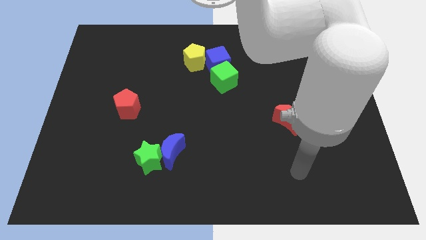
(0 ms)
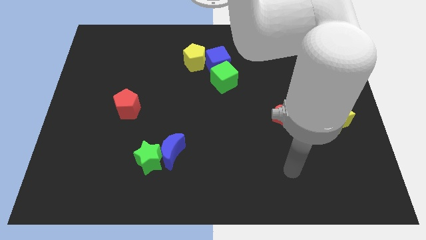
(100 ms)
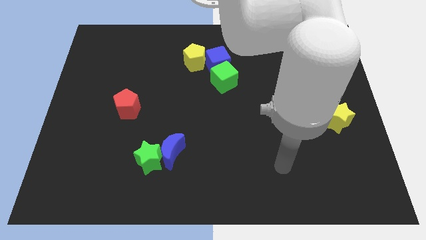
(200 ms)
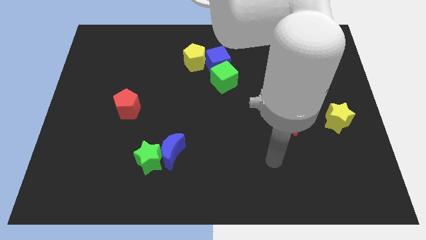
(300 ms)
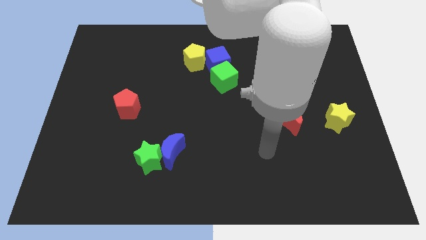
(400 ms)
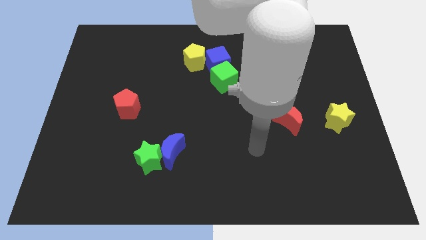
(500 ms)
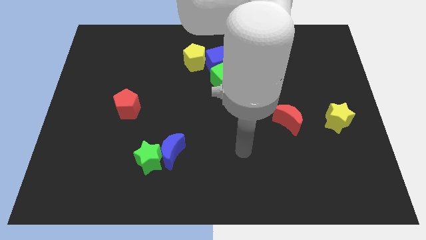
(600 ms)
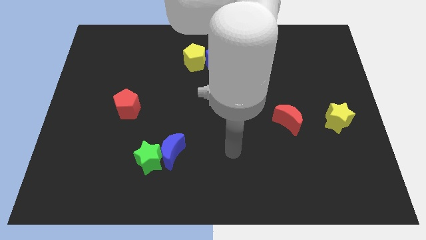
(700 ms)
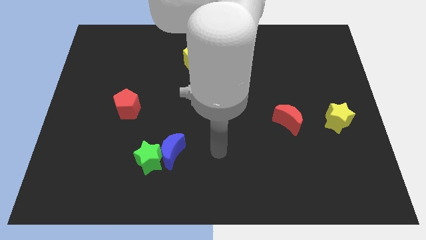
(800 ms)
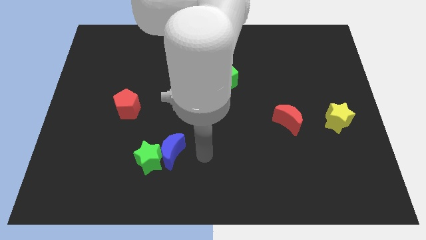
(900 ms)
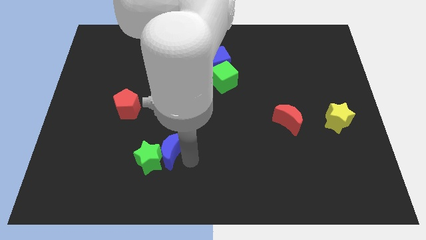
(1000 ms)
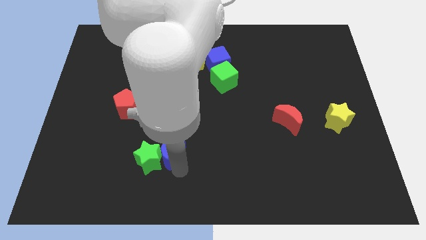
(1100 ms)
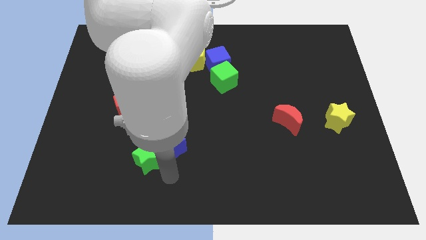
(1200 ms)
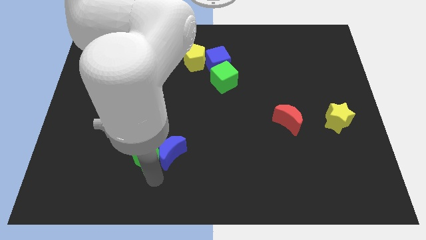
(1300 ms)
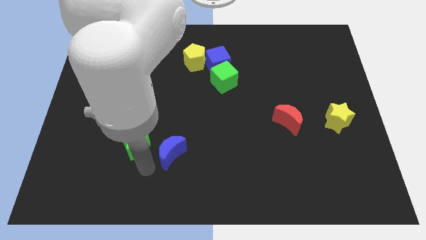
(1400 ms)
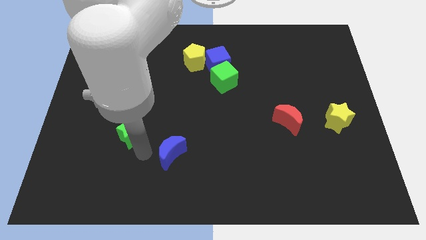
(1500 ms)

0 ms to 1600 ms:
separate the blue moon from the green star

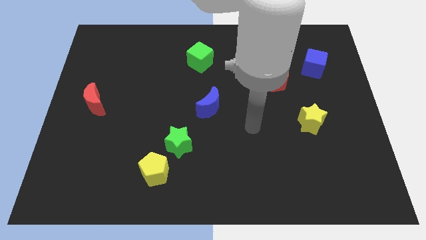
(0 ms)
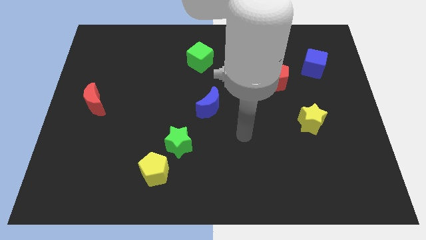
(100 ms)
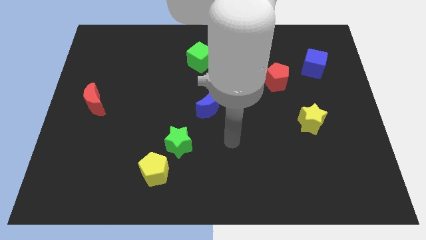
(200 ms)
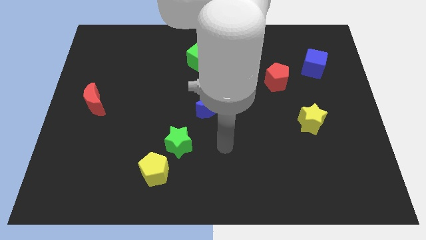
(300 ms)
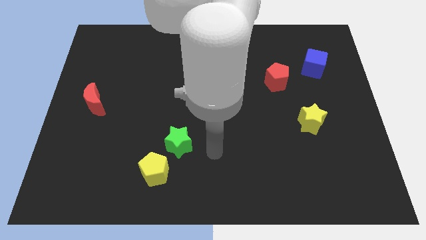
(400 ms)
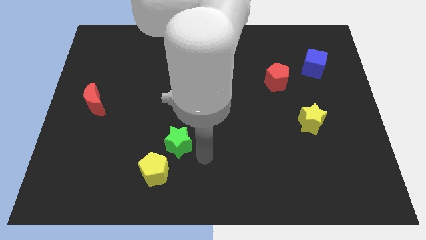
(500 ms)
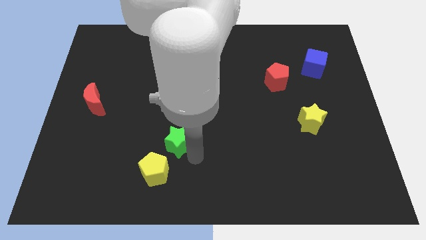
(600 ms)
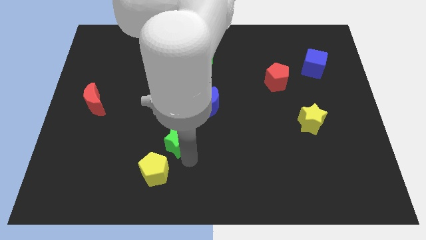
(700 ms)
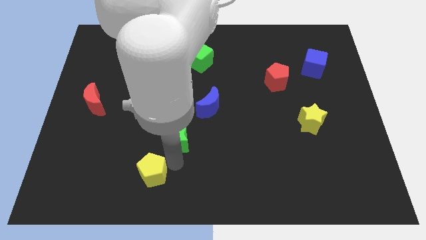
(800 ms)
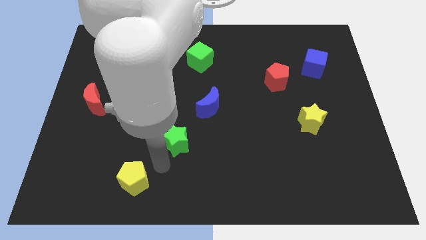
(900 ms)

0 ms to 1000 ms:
pull the green star apart from the yellow pentagon

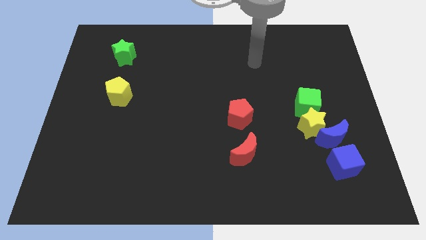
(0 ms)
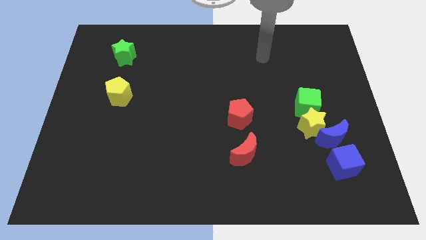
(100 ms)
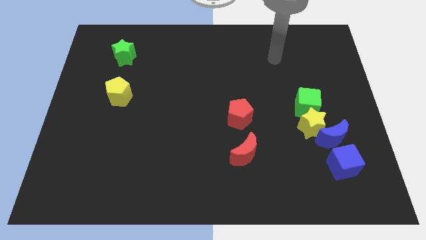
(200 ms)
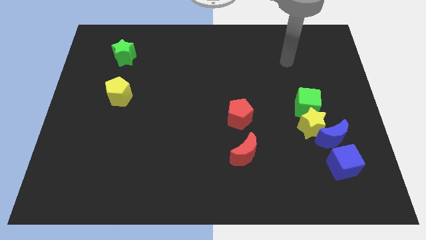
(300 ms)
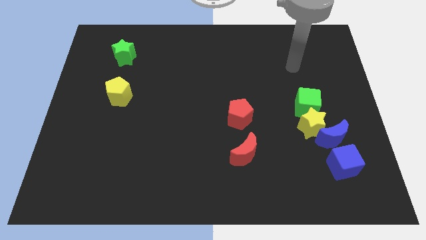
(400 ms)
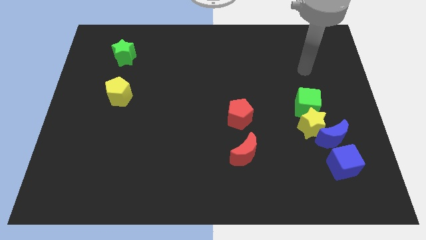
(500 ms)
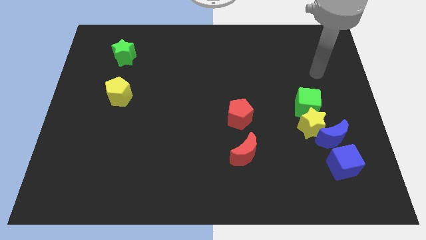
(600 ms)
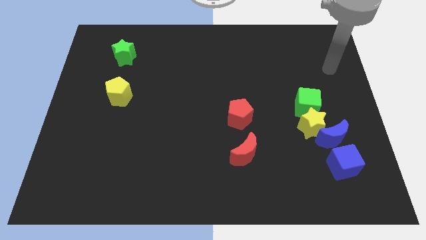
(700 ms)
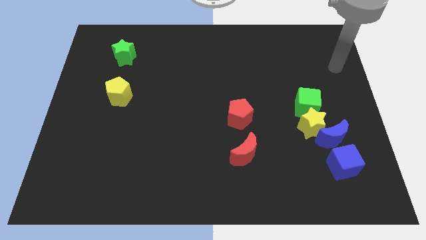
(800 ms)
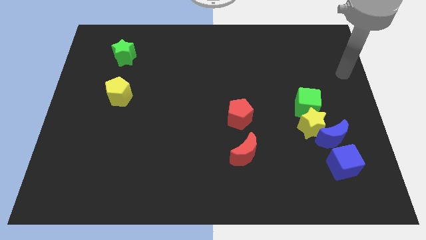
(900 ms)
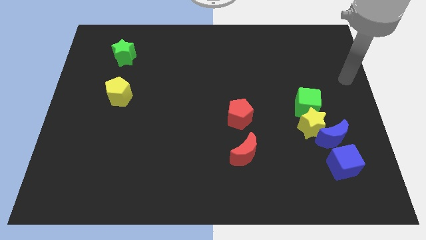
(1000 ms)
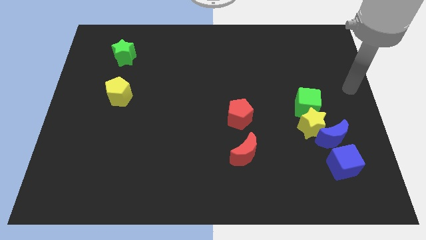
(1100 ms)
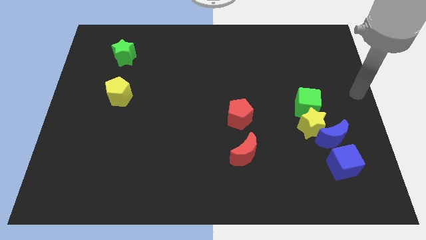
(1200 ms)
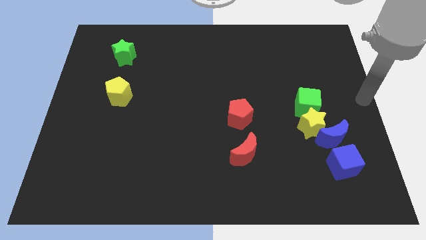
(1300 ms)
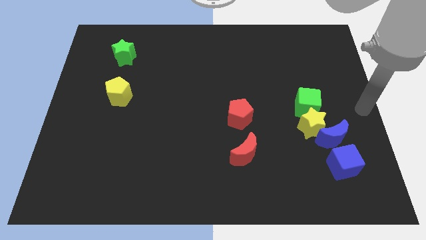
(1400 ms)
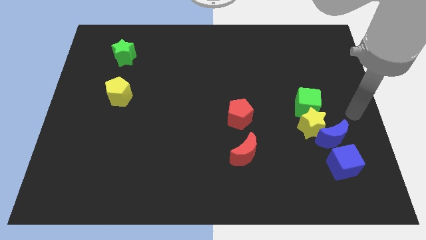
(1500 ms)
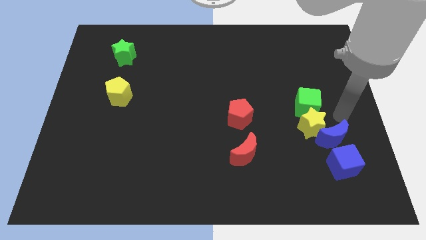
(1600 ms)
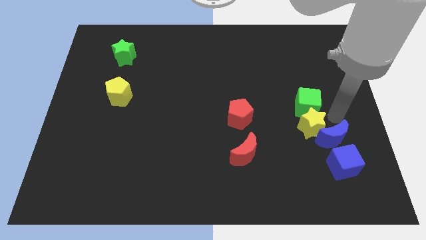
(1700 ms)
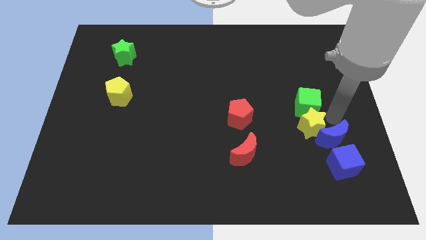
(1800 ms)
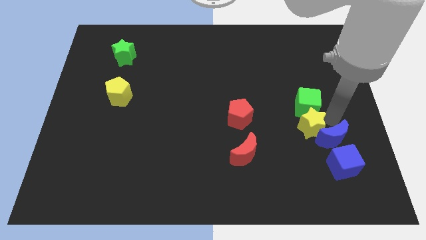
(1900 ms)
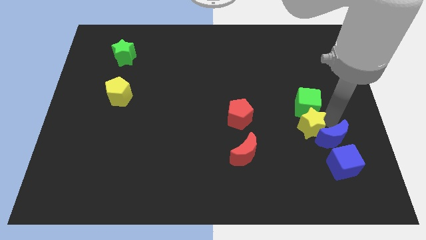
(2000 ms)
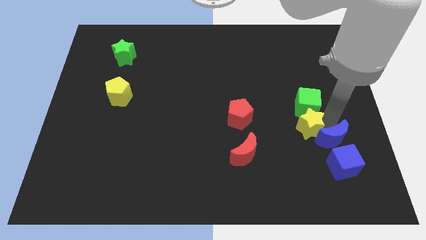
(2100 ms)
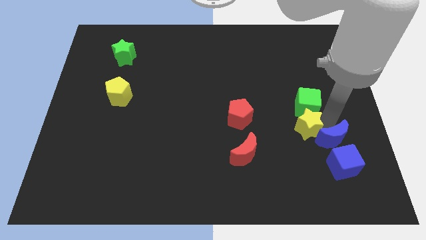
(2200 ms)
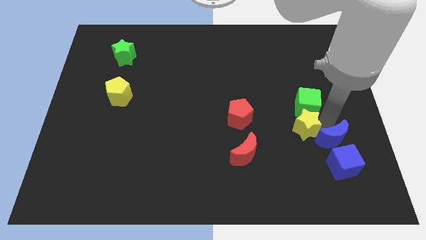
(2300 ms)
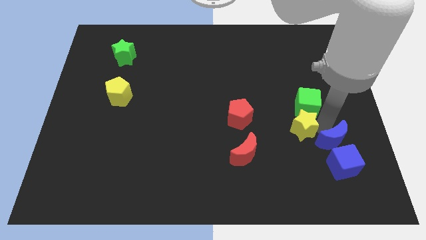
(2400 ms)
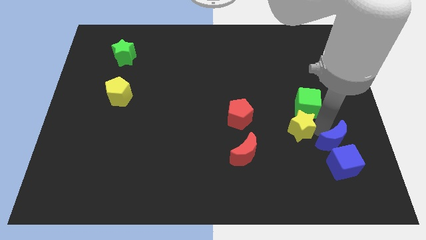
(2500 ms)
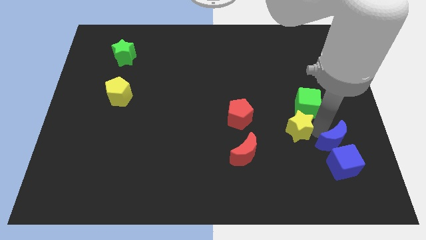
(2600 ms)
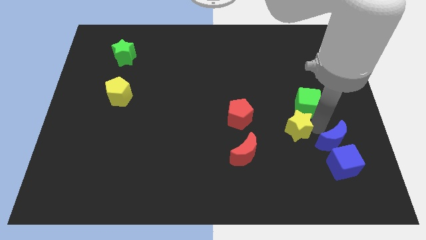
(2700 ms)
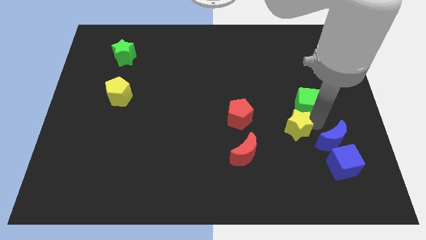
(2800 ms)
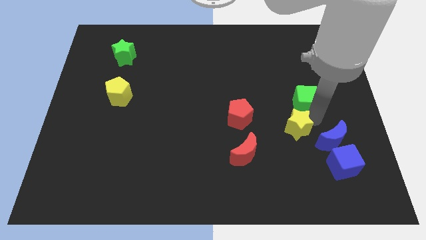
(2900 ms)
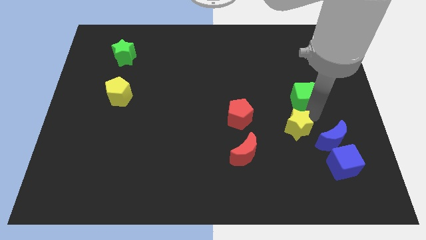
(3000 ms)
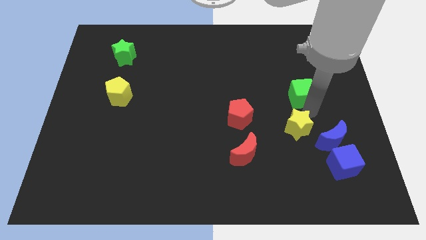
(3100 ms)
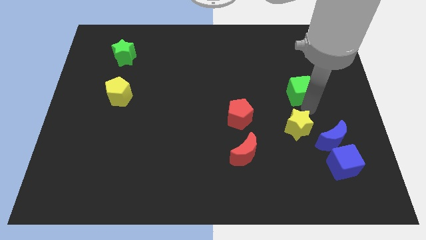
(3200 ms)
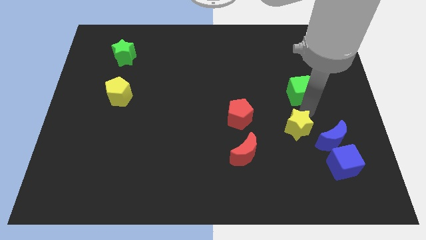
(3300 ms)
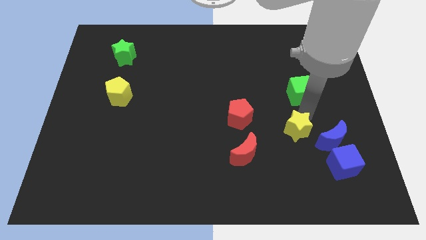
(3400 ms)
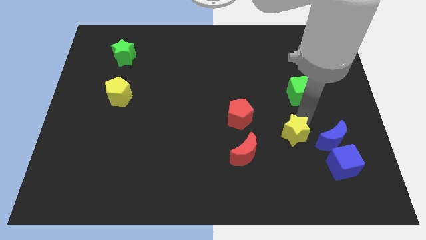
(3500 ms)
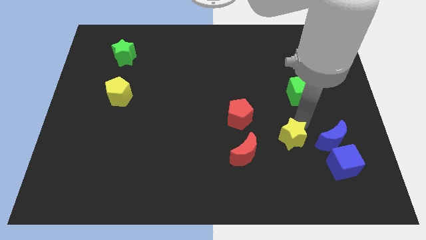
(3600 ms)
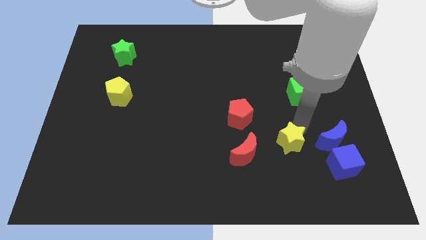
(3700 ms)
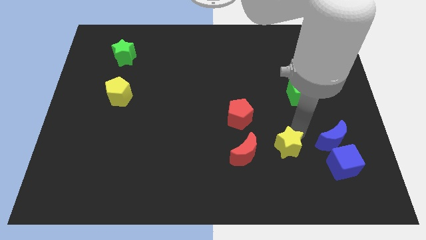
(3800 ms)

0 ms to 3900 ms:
pull the yellow star apart from the blue moon and green cube

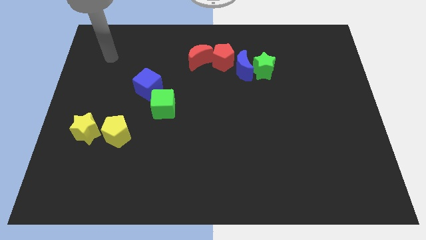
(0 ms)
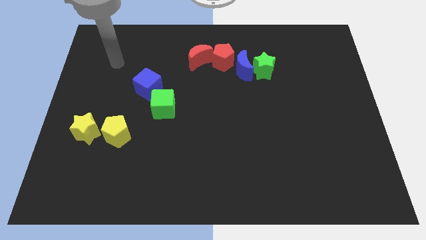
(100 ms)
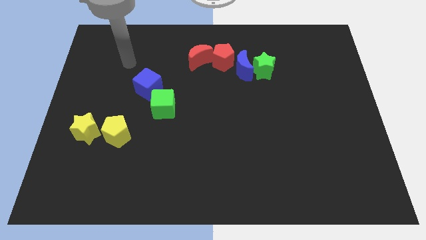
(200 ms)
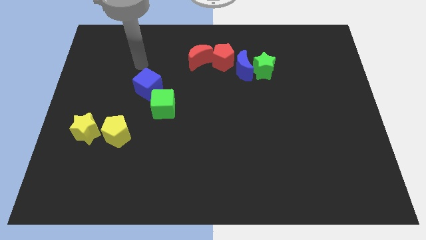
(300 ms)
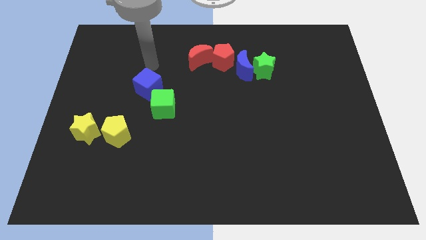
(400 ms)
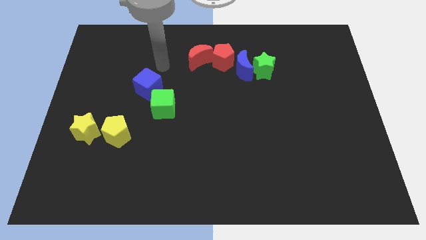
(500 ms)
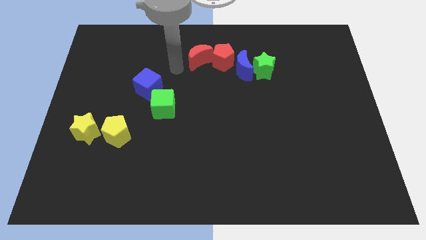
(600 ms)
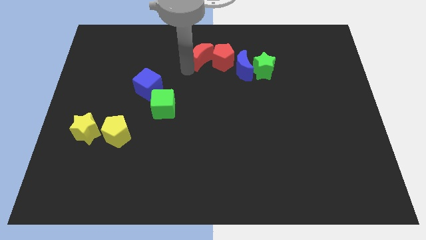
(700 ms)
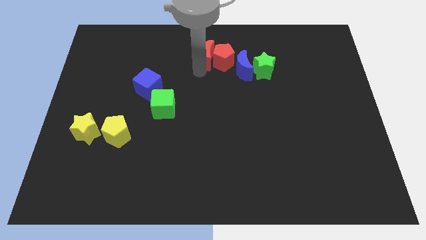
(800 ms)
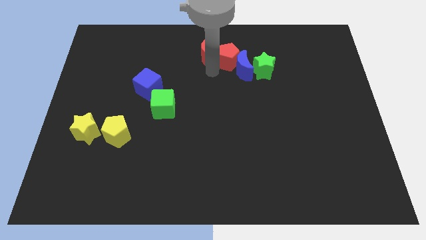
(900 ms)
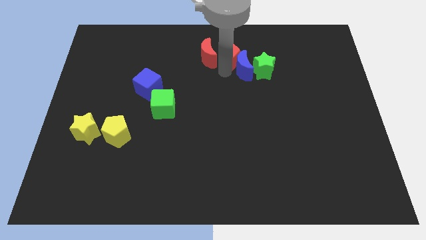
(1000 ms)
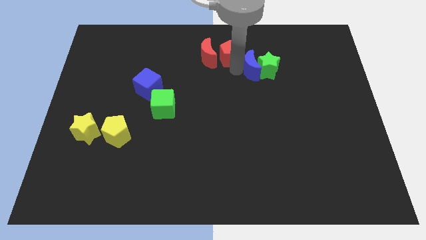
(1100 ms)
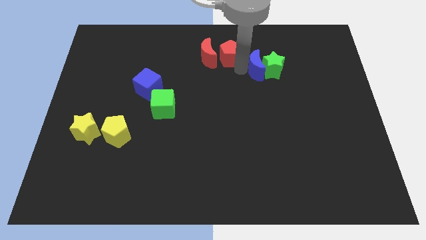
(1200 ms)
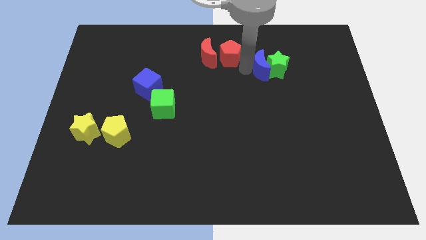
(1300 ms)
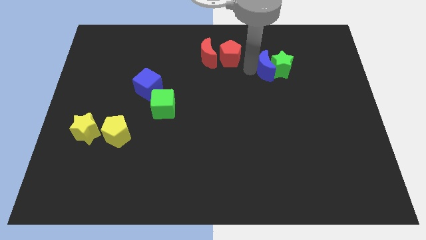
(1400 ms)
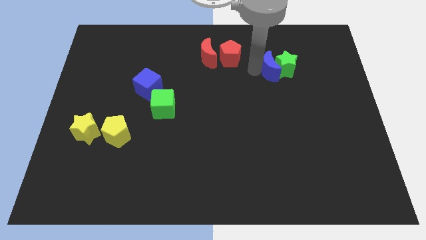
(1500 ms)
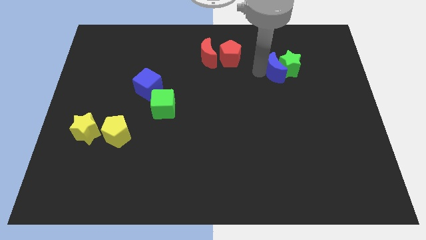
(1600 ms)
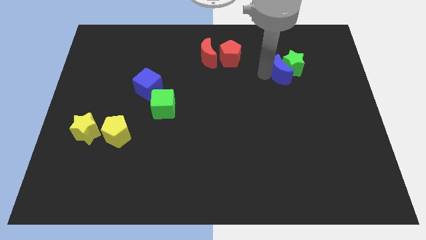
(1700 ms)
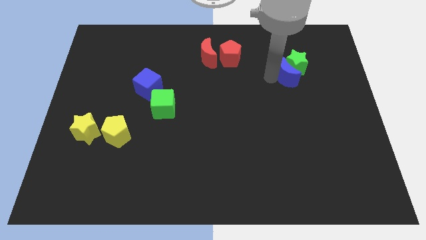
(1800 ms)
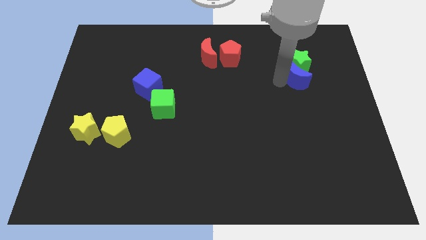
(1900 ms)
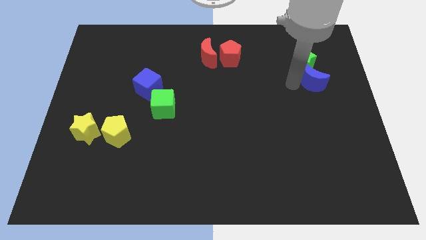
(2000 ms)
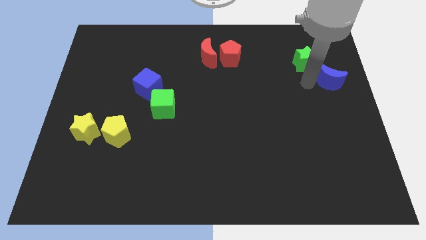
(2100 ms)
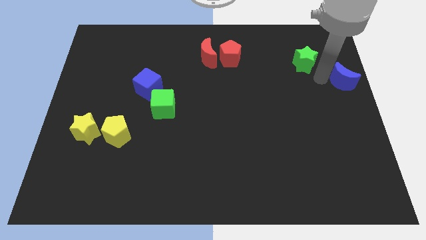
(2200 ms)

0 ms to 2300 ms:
separate the green star from the blue moon

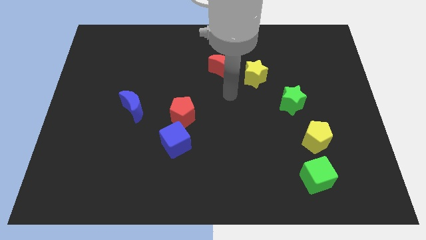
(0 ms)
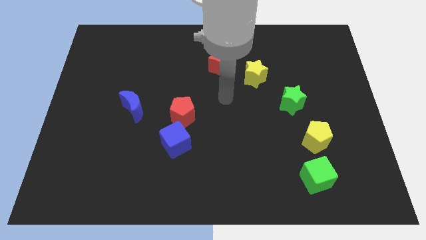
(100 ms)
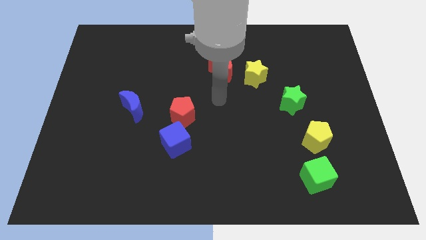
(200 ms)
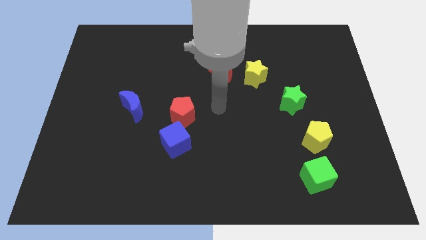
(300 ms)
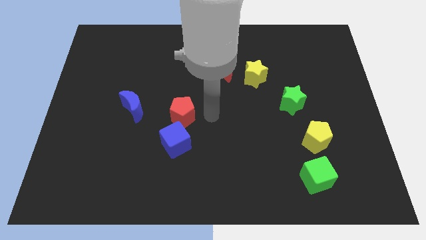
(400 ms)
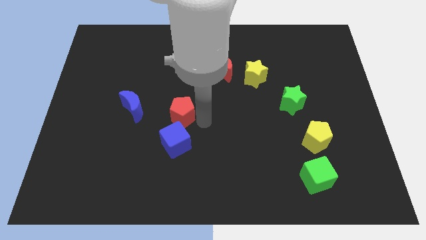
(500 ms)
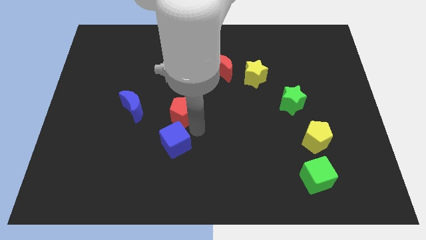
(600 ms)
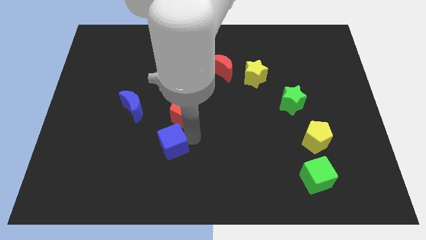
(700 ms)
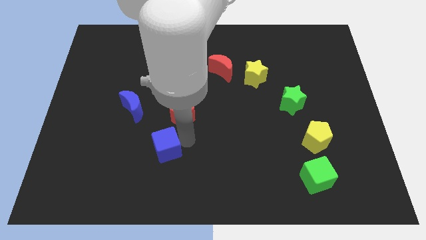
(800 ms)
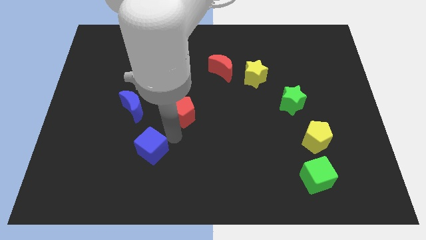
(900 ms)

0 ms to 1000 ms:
pull the red pentagon apart from the blue cube
